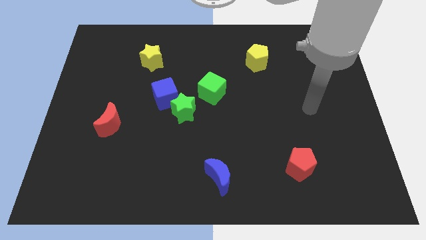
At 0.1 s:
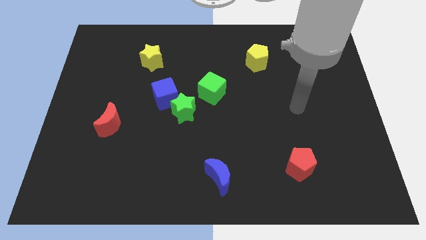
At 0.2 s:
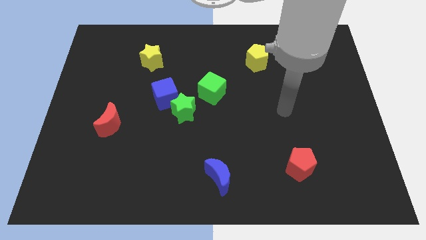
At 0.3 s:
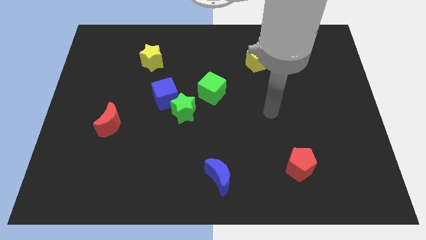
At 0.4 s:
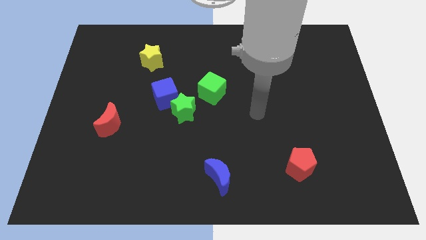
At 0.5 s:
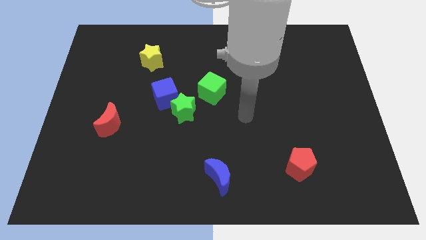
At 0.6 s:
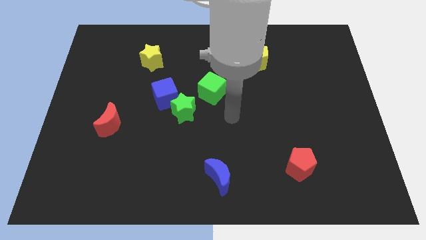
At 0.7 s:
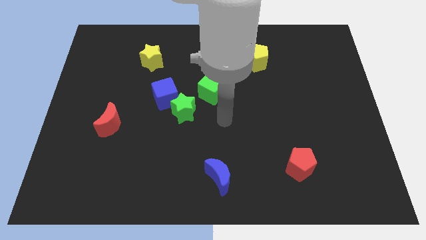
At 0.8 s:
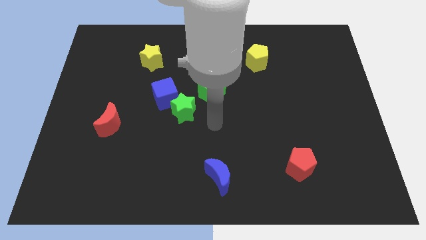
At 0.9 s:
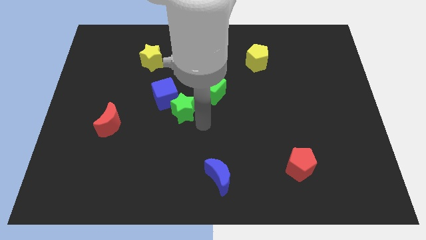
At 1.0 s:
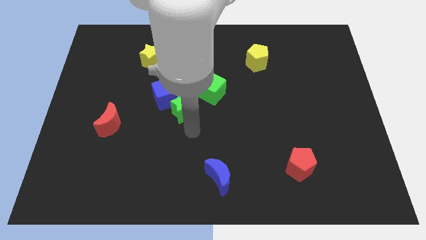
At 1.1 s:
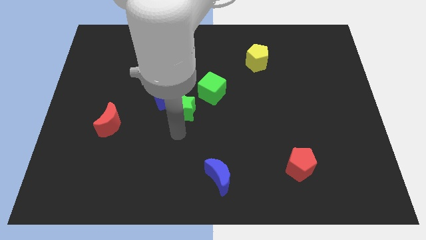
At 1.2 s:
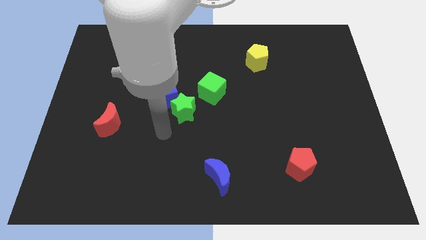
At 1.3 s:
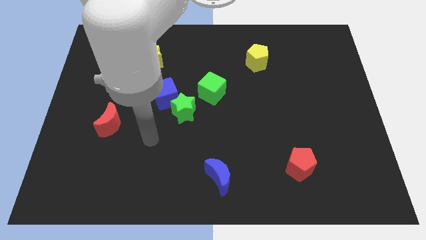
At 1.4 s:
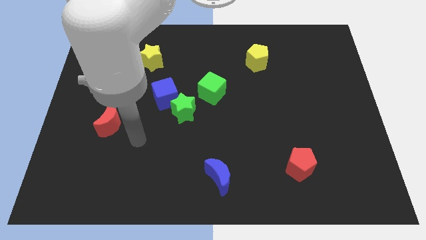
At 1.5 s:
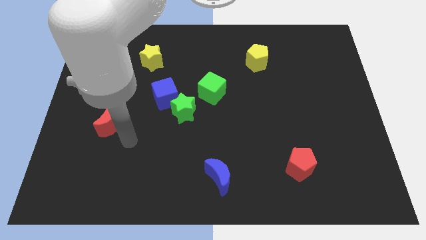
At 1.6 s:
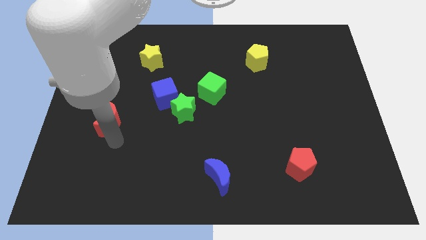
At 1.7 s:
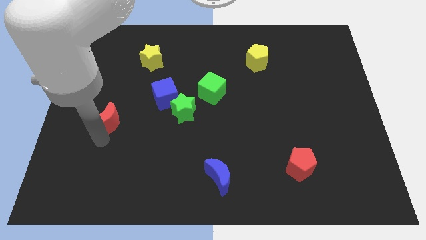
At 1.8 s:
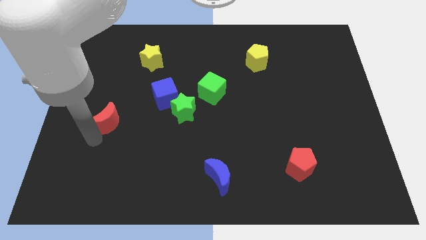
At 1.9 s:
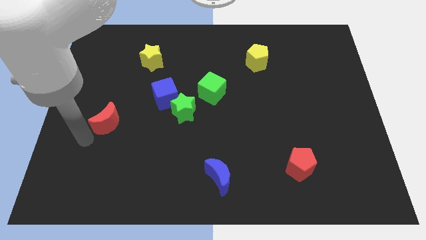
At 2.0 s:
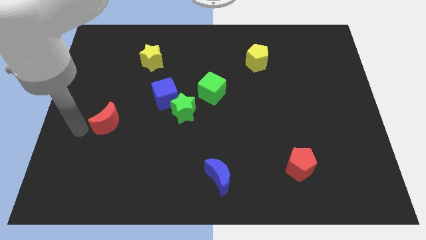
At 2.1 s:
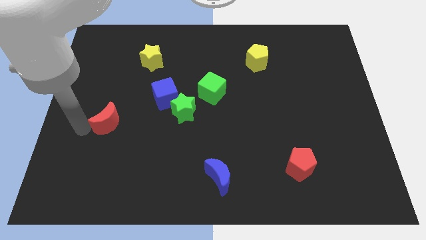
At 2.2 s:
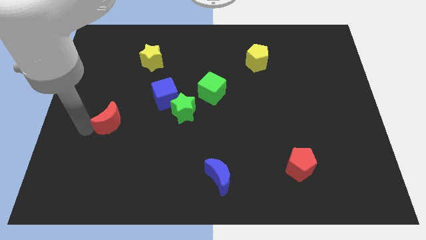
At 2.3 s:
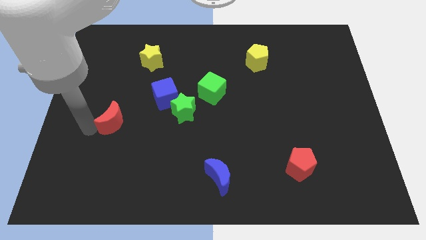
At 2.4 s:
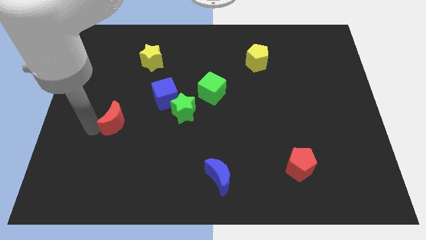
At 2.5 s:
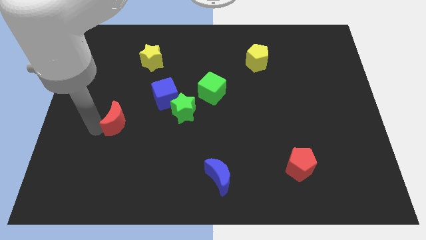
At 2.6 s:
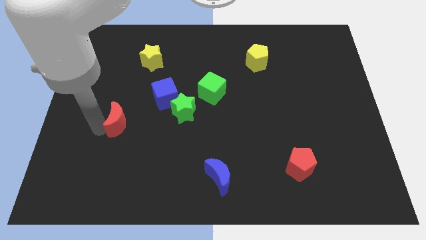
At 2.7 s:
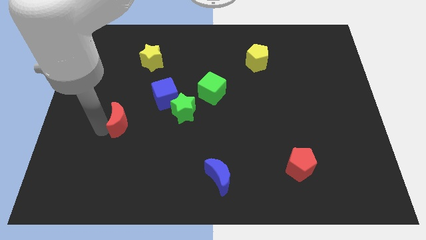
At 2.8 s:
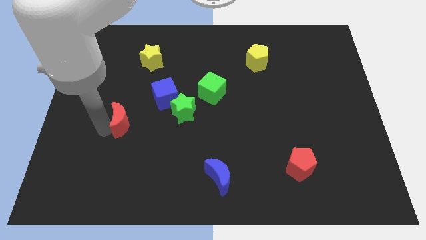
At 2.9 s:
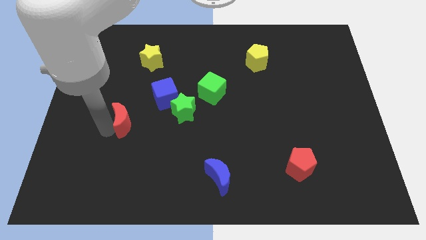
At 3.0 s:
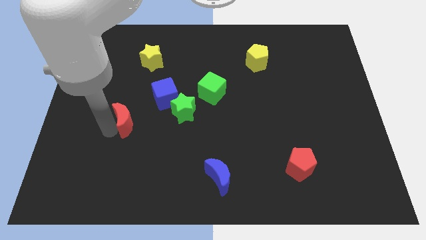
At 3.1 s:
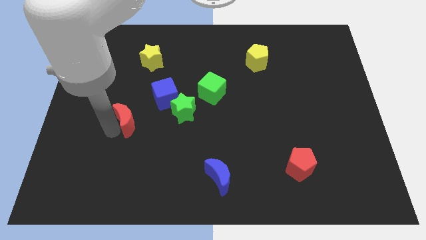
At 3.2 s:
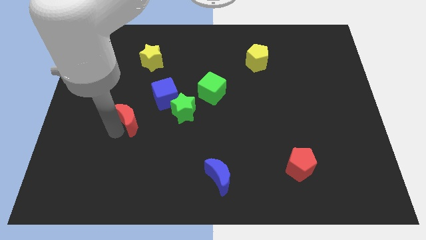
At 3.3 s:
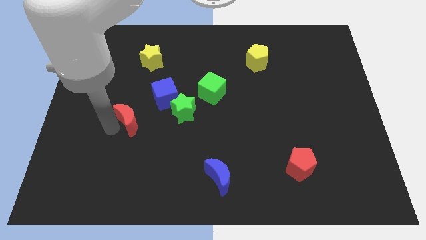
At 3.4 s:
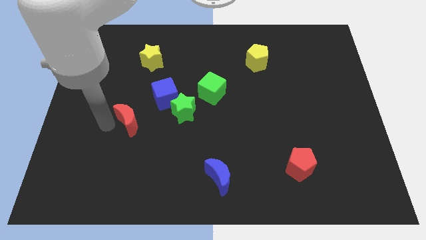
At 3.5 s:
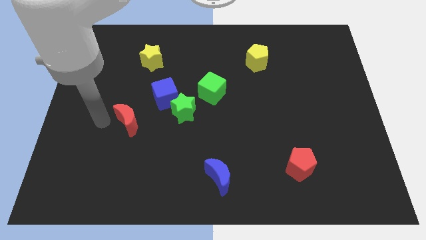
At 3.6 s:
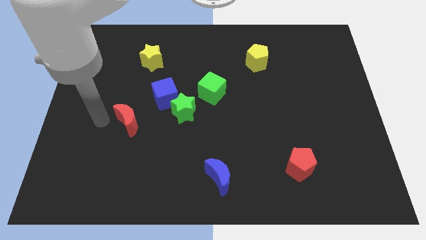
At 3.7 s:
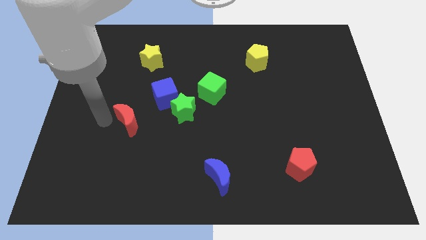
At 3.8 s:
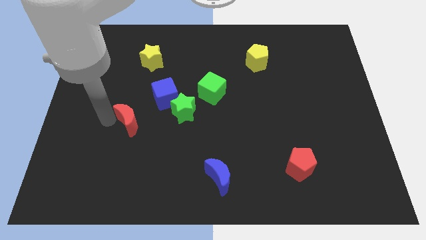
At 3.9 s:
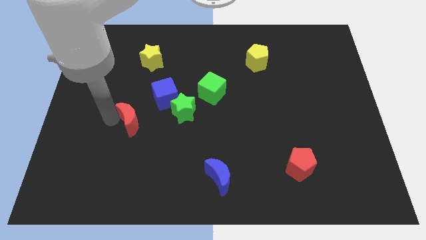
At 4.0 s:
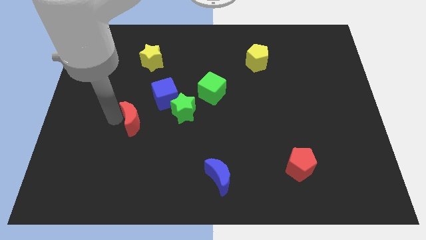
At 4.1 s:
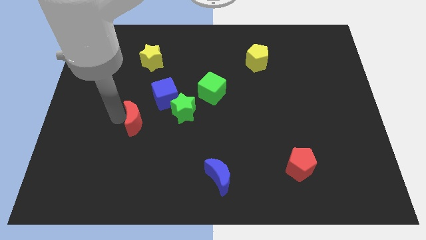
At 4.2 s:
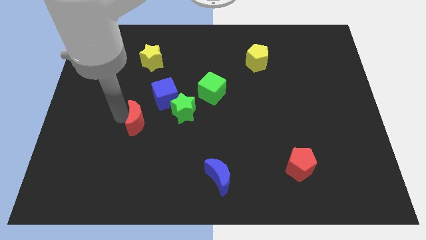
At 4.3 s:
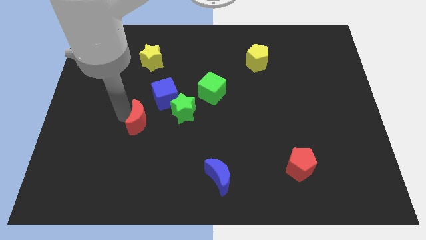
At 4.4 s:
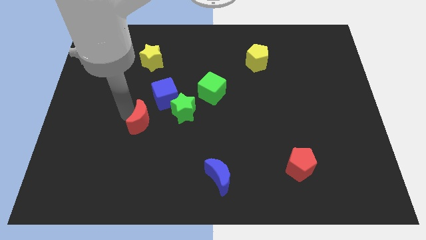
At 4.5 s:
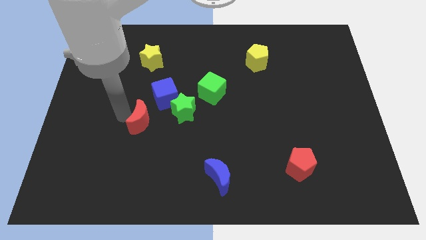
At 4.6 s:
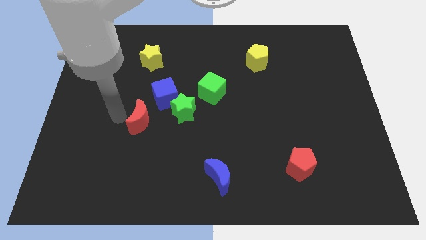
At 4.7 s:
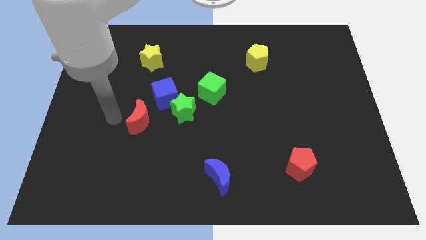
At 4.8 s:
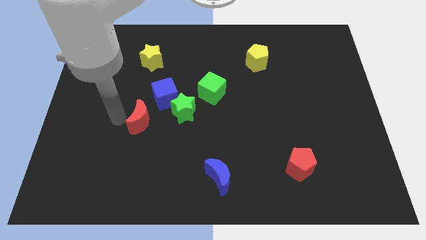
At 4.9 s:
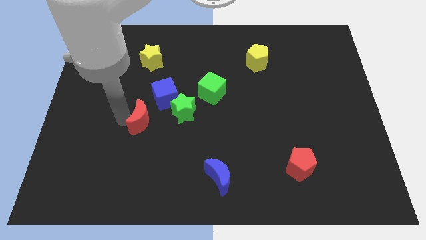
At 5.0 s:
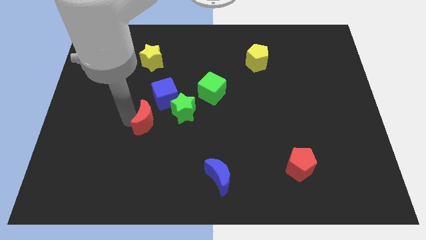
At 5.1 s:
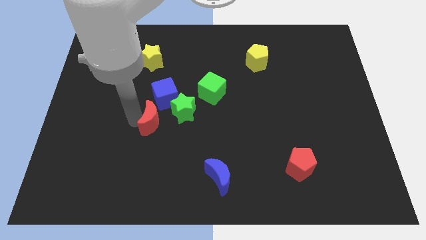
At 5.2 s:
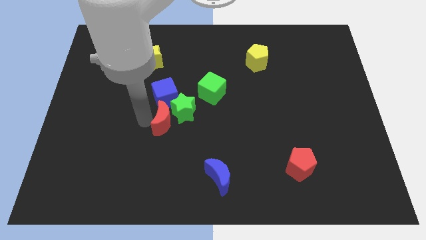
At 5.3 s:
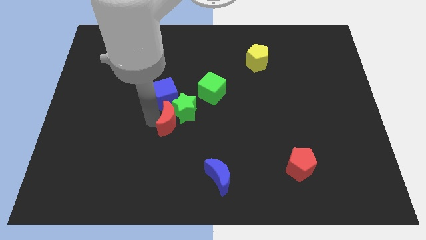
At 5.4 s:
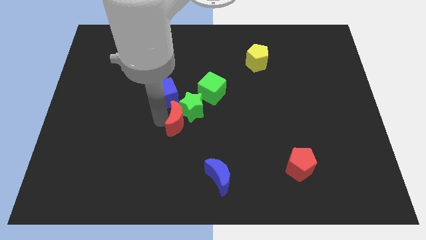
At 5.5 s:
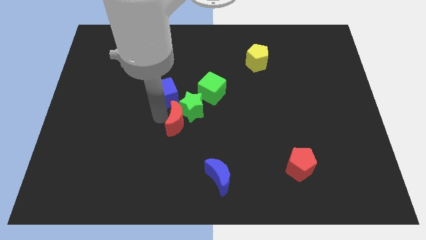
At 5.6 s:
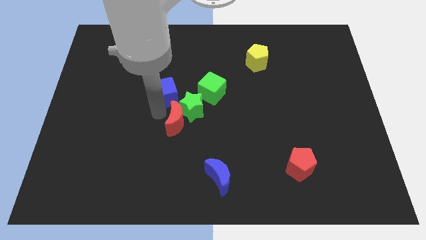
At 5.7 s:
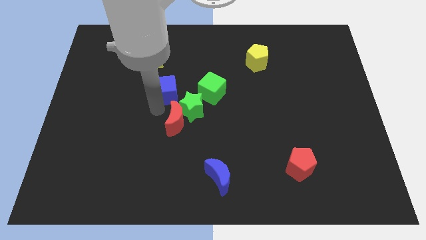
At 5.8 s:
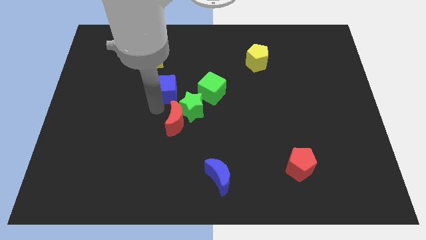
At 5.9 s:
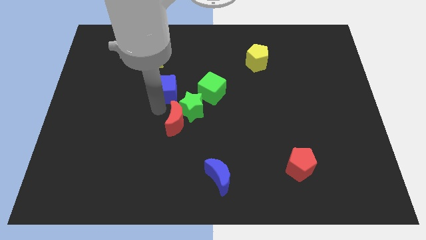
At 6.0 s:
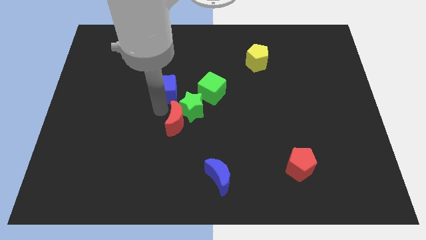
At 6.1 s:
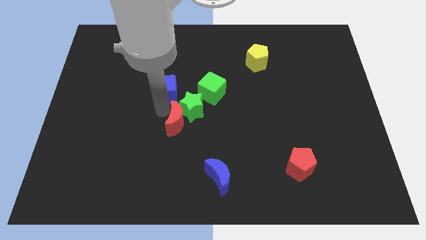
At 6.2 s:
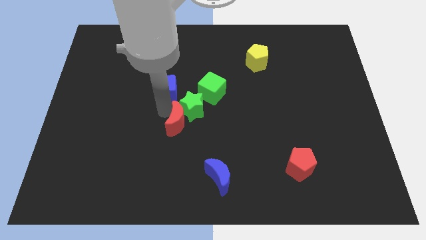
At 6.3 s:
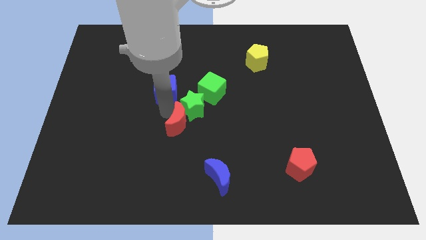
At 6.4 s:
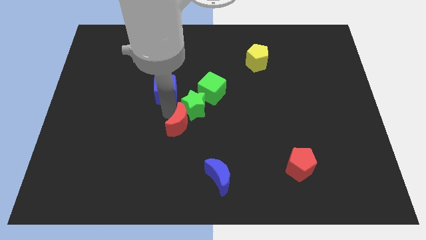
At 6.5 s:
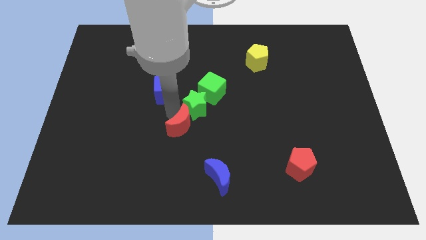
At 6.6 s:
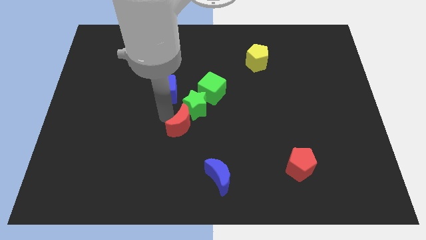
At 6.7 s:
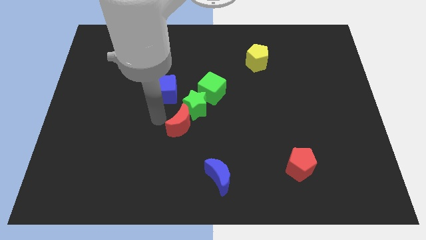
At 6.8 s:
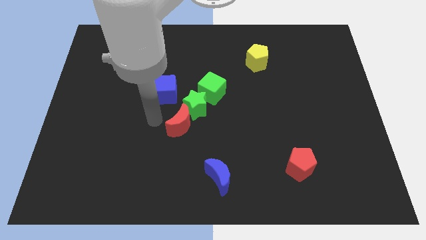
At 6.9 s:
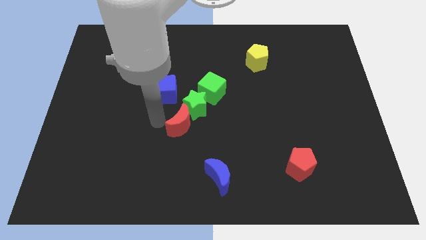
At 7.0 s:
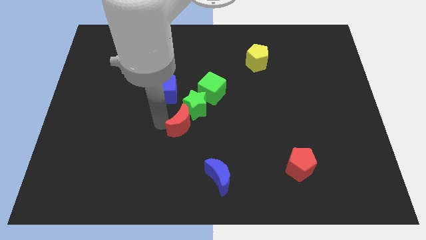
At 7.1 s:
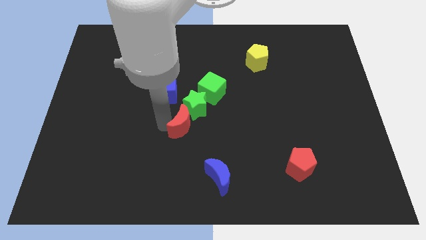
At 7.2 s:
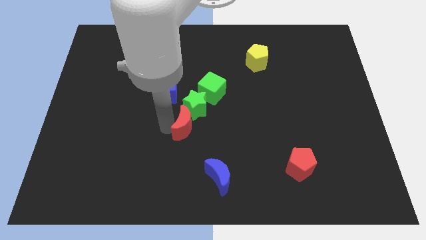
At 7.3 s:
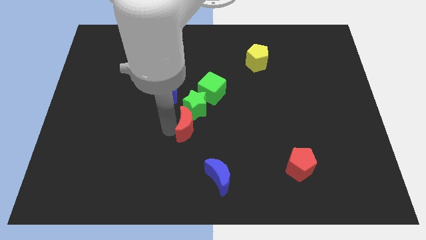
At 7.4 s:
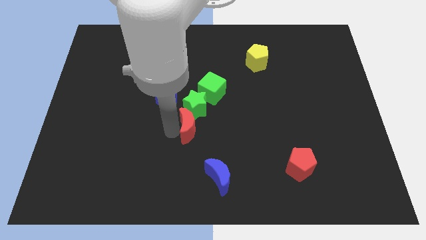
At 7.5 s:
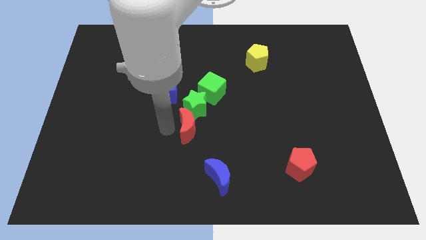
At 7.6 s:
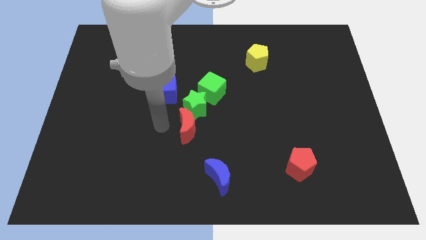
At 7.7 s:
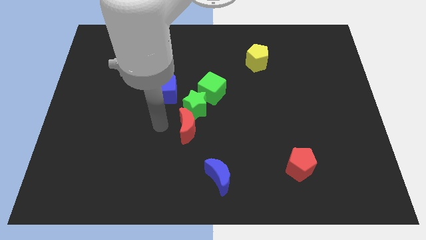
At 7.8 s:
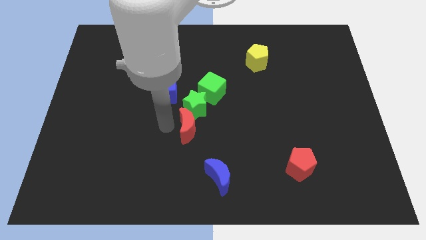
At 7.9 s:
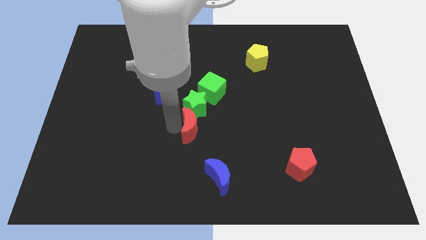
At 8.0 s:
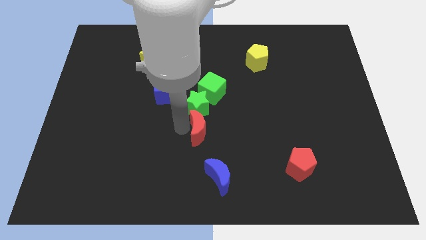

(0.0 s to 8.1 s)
move the red moon to the right
